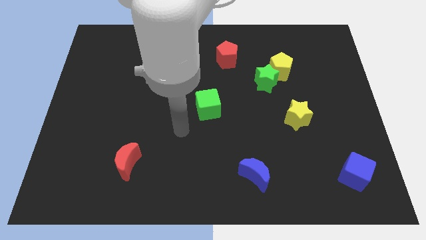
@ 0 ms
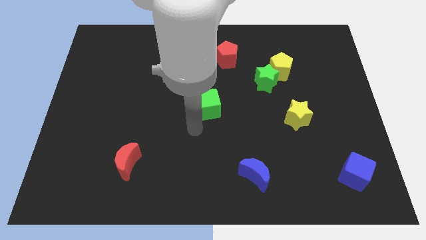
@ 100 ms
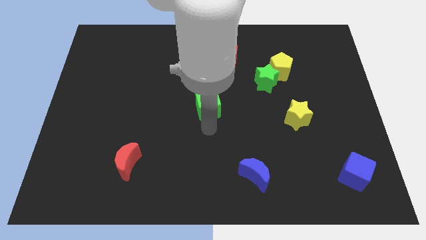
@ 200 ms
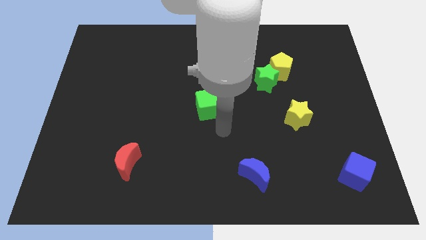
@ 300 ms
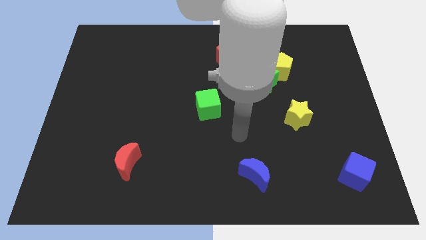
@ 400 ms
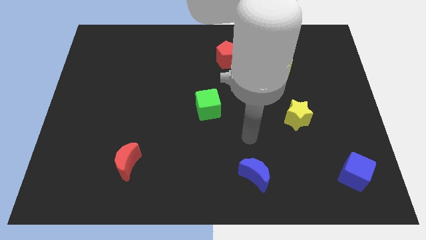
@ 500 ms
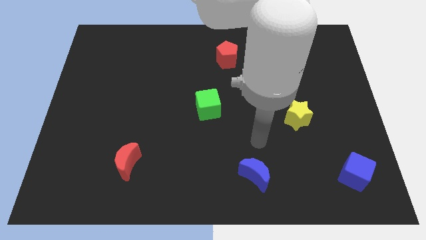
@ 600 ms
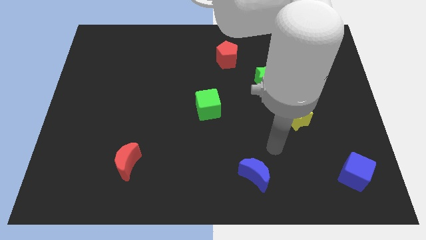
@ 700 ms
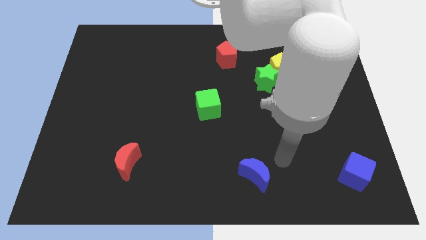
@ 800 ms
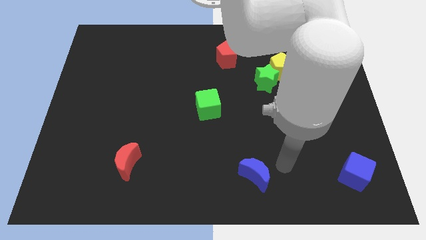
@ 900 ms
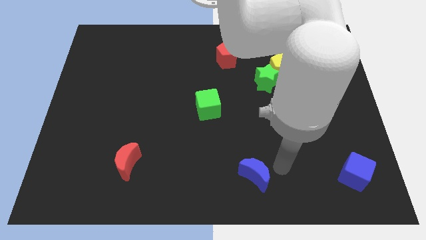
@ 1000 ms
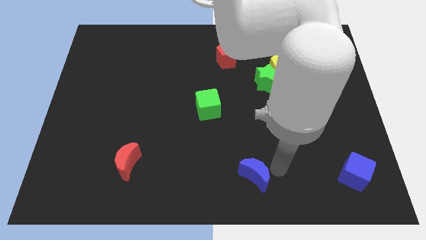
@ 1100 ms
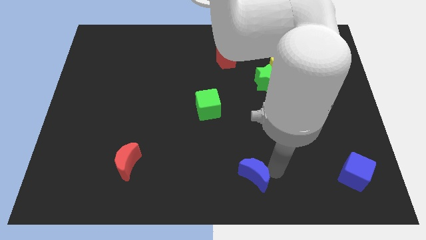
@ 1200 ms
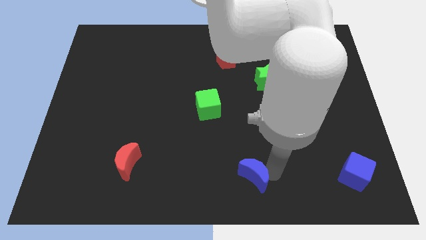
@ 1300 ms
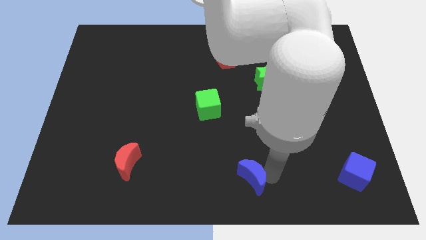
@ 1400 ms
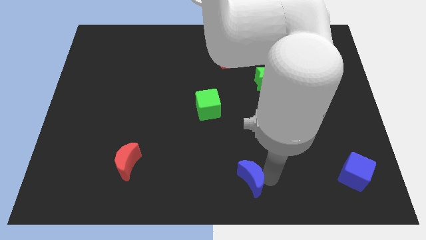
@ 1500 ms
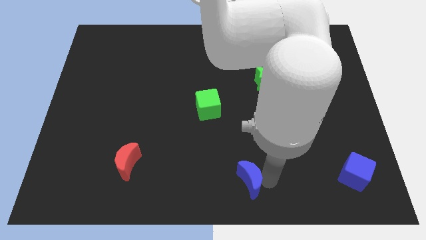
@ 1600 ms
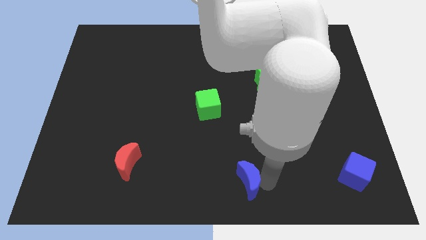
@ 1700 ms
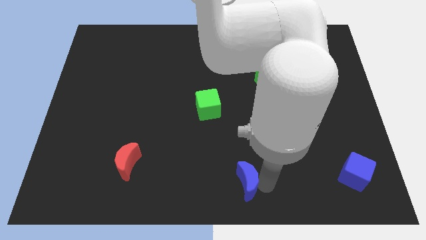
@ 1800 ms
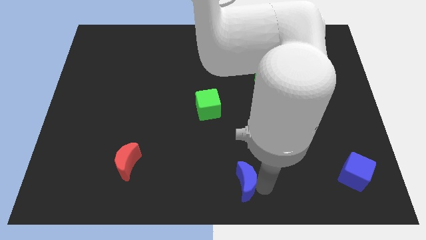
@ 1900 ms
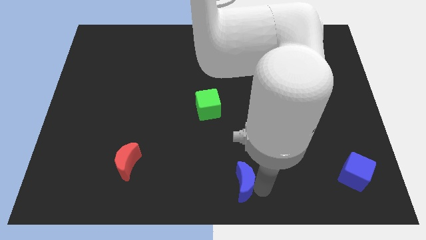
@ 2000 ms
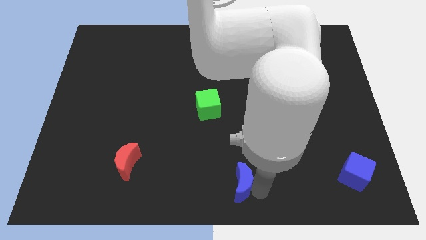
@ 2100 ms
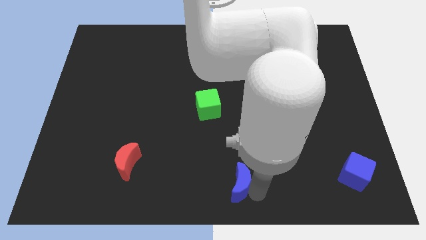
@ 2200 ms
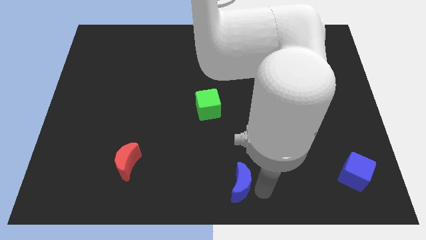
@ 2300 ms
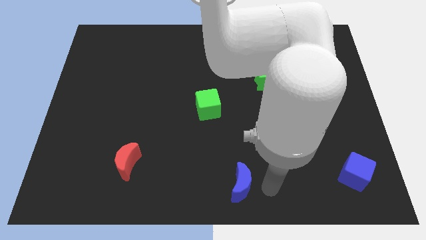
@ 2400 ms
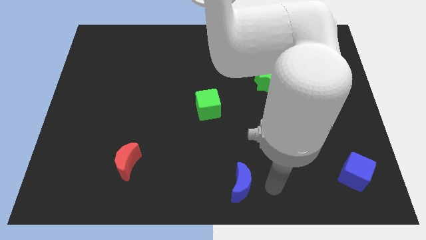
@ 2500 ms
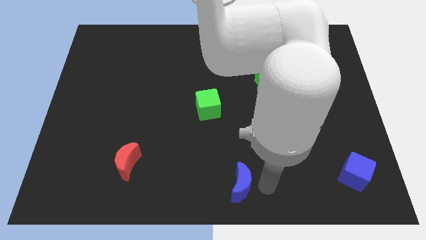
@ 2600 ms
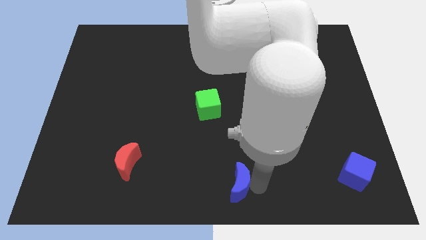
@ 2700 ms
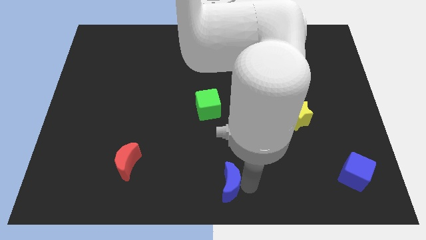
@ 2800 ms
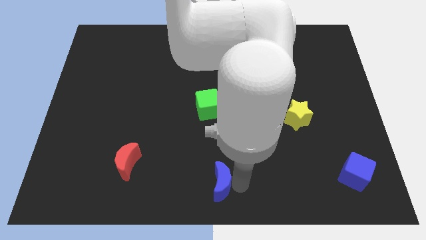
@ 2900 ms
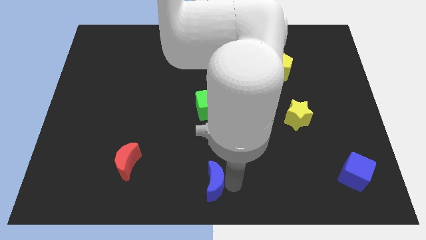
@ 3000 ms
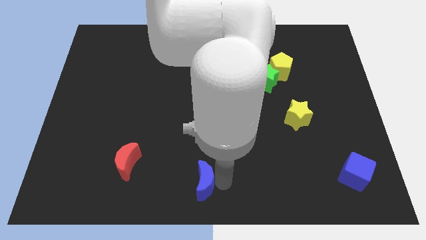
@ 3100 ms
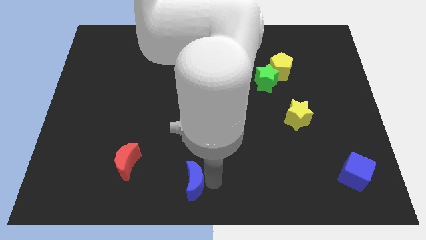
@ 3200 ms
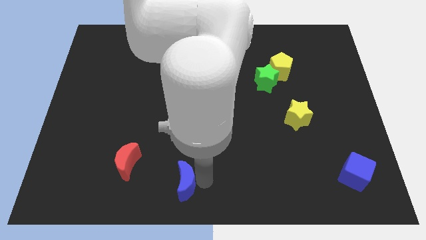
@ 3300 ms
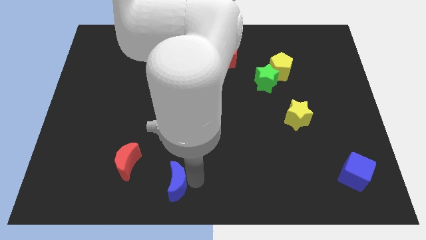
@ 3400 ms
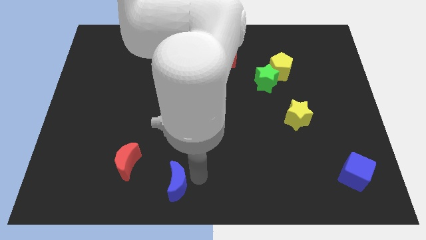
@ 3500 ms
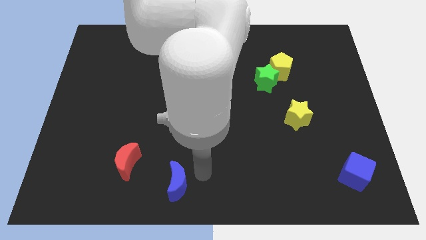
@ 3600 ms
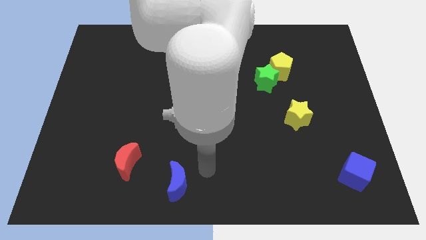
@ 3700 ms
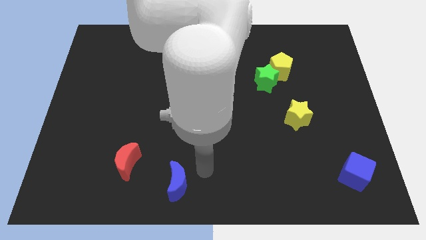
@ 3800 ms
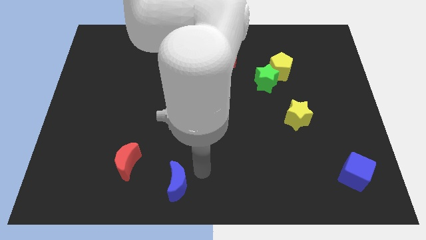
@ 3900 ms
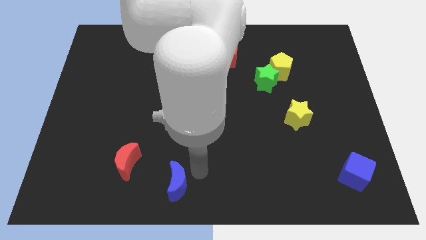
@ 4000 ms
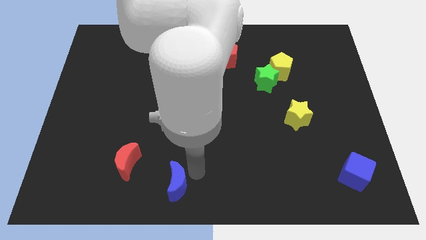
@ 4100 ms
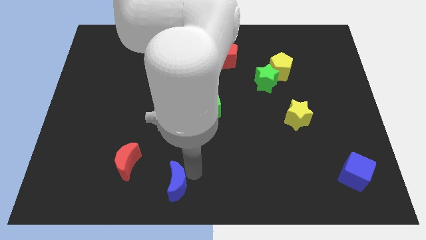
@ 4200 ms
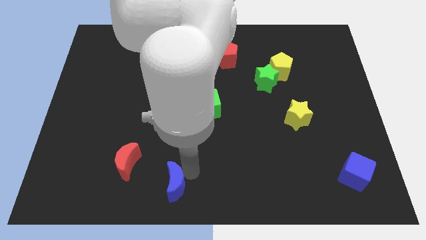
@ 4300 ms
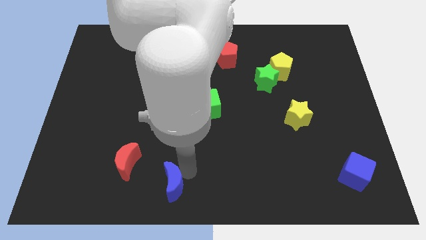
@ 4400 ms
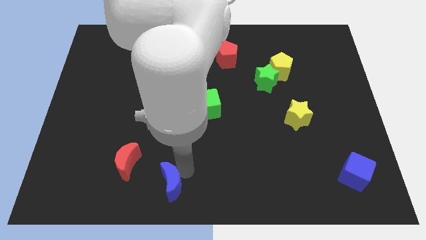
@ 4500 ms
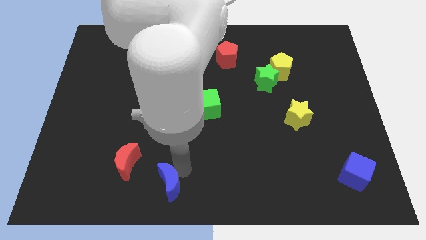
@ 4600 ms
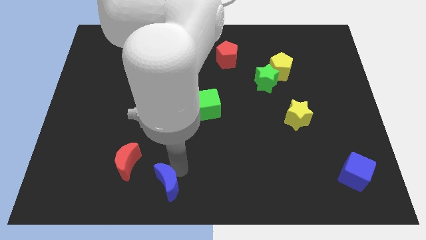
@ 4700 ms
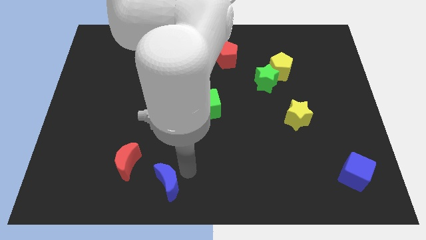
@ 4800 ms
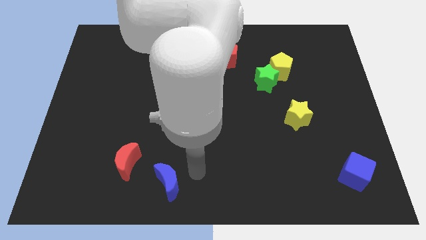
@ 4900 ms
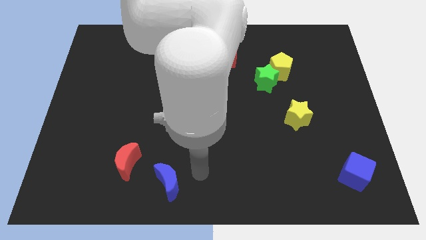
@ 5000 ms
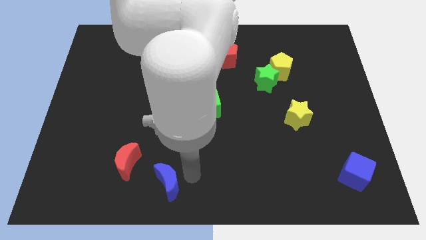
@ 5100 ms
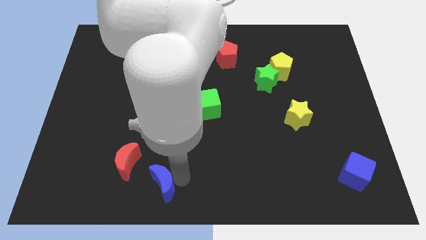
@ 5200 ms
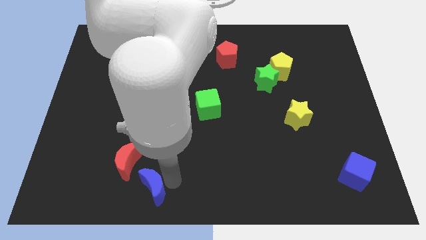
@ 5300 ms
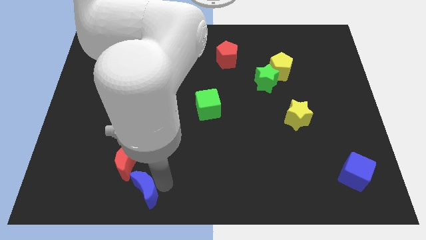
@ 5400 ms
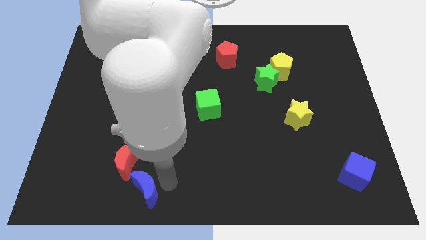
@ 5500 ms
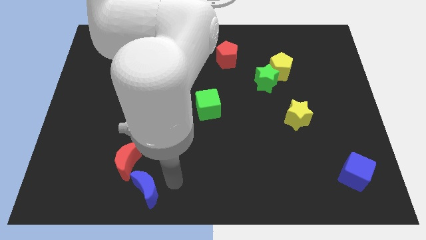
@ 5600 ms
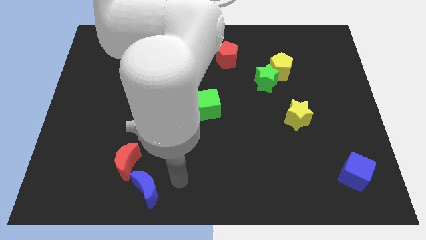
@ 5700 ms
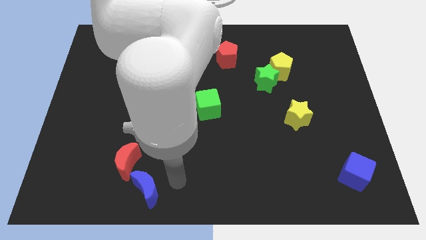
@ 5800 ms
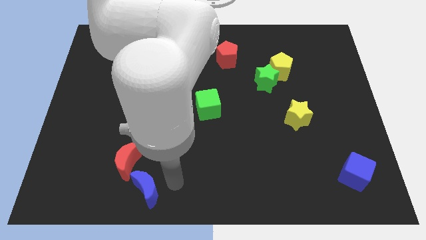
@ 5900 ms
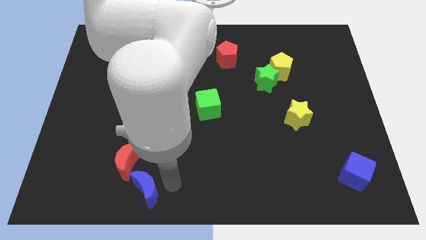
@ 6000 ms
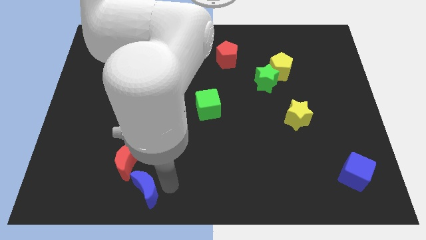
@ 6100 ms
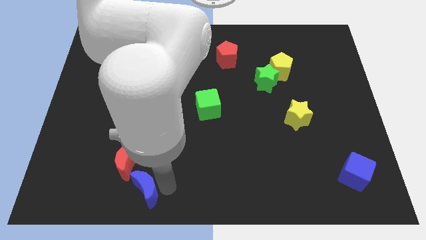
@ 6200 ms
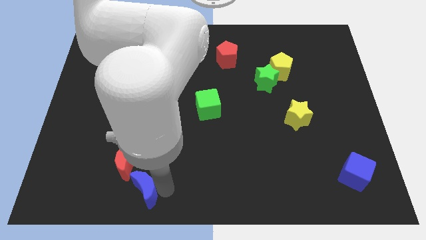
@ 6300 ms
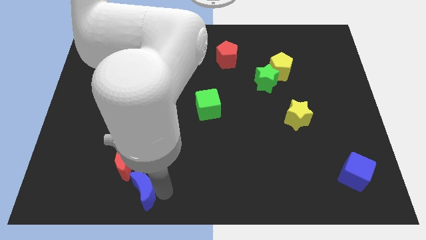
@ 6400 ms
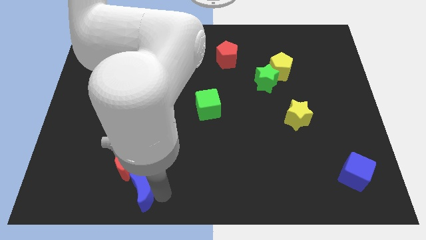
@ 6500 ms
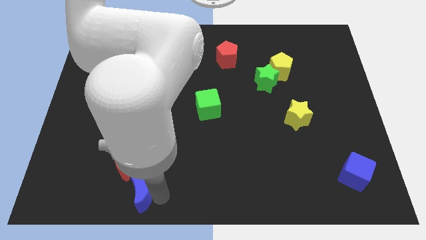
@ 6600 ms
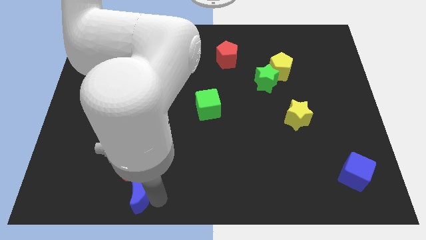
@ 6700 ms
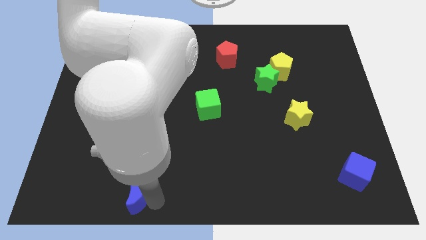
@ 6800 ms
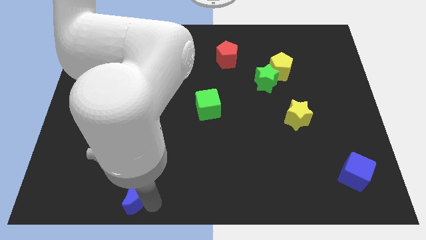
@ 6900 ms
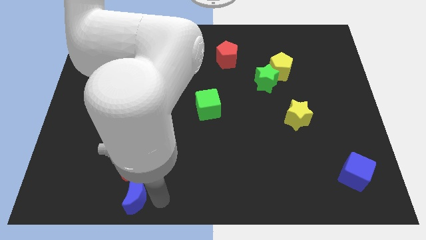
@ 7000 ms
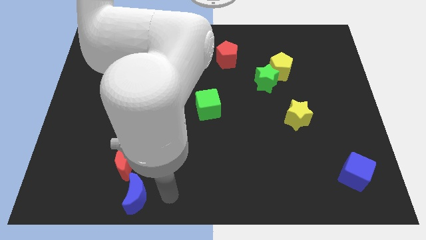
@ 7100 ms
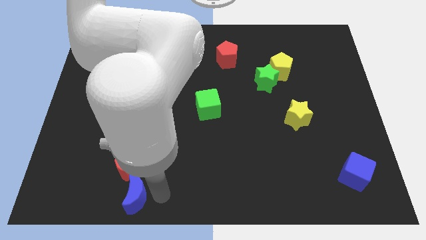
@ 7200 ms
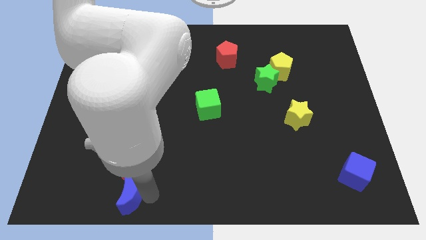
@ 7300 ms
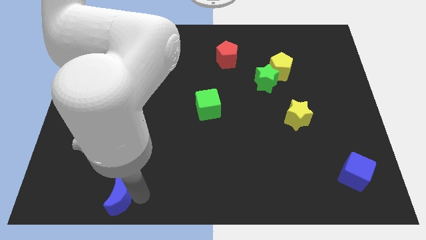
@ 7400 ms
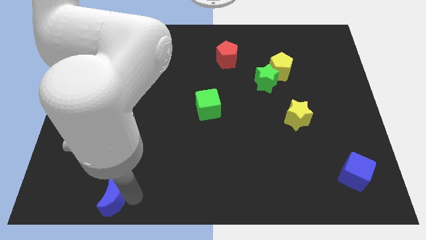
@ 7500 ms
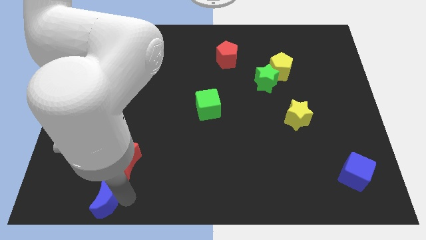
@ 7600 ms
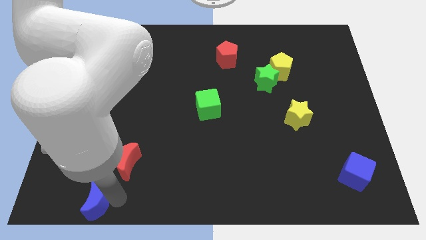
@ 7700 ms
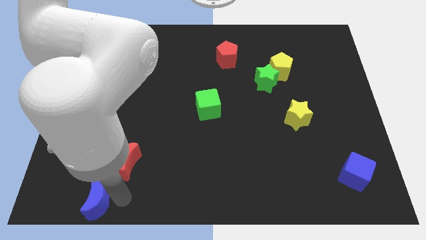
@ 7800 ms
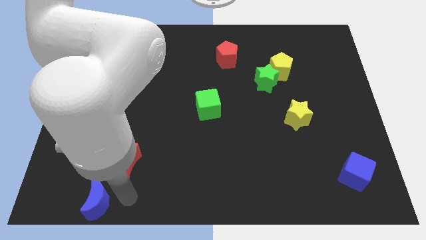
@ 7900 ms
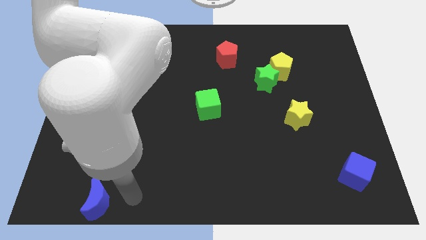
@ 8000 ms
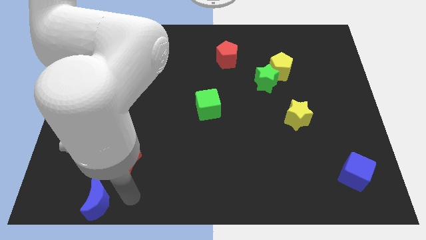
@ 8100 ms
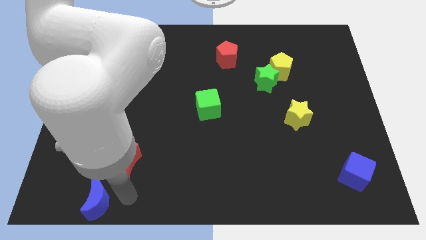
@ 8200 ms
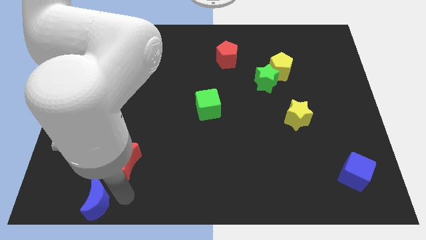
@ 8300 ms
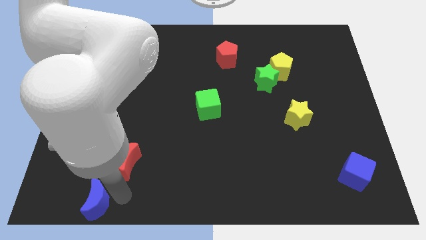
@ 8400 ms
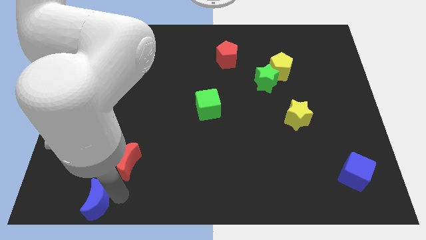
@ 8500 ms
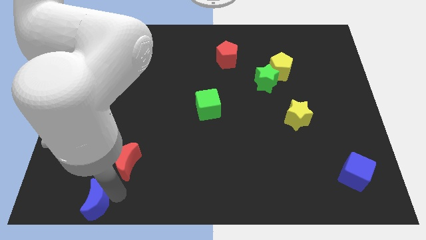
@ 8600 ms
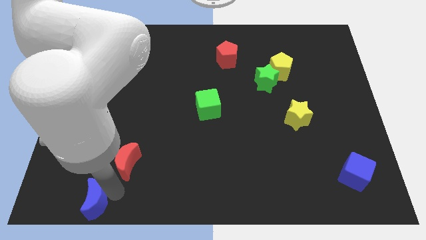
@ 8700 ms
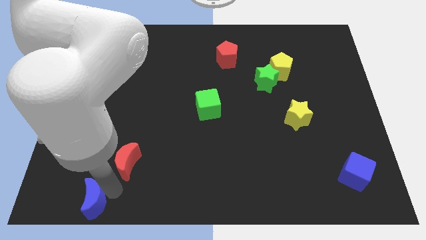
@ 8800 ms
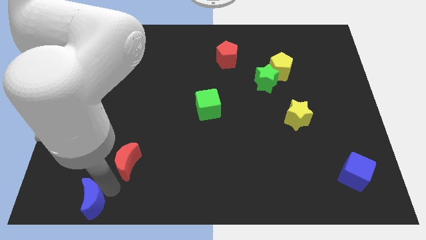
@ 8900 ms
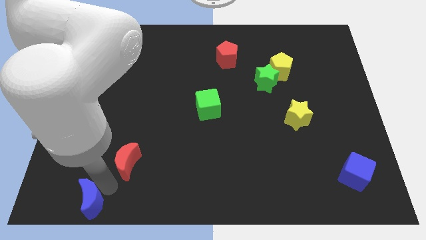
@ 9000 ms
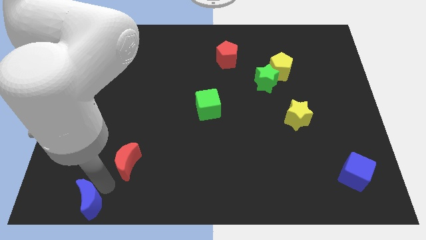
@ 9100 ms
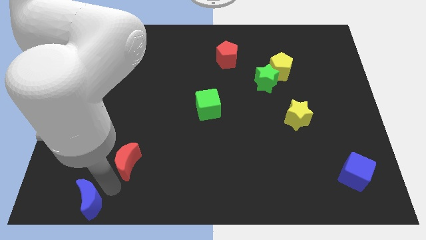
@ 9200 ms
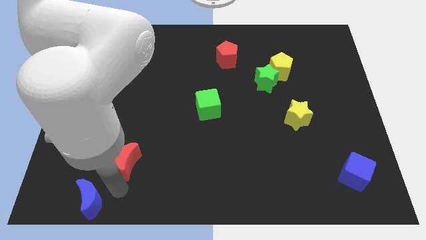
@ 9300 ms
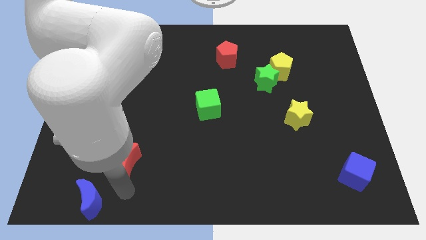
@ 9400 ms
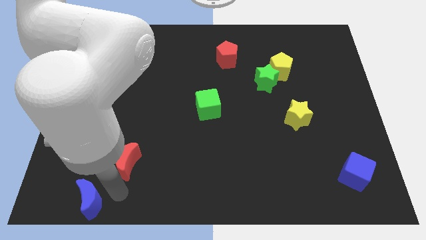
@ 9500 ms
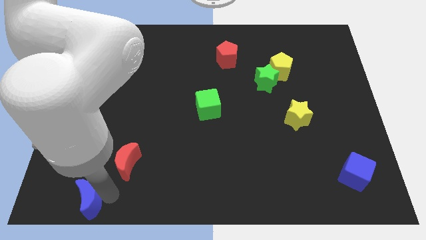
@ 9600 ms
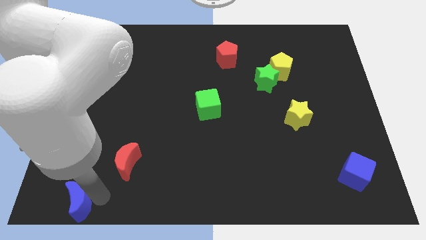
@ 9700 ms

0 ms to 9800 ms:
slide the blue moon to the bottom left of the board
